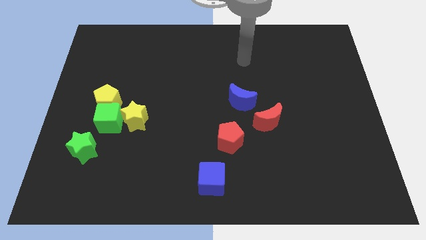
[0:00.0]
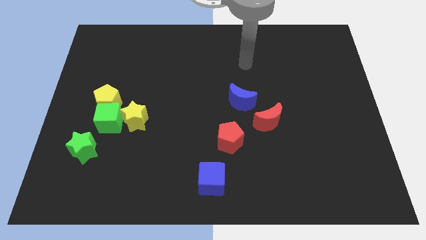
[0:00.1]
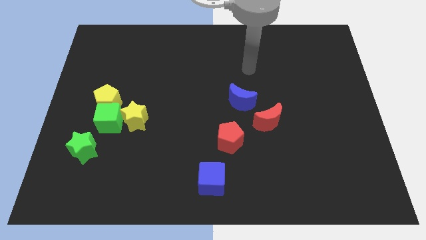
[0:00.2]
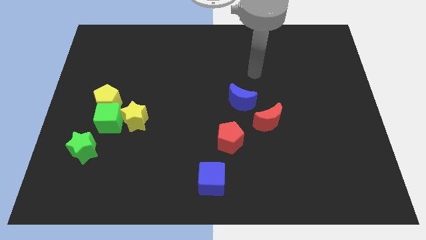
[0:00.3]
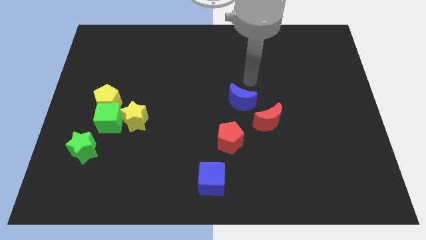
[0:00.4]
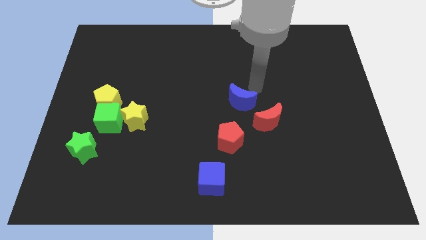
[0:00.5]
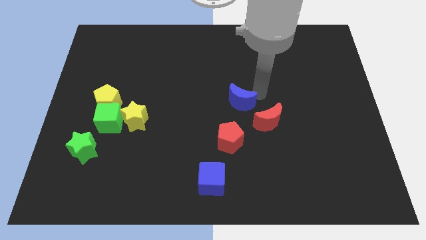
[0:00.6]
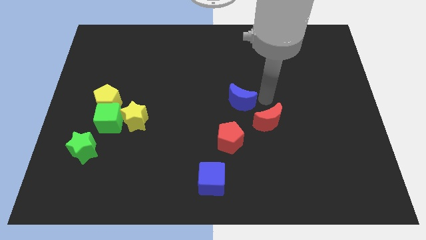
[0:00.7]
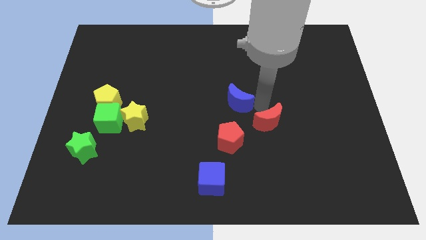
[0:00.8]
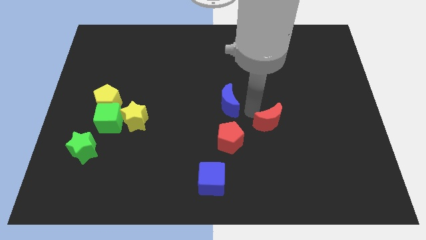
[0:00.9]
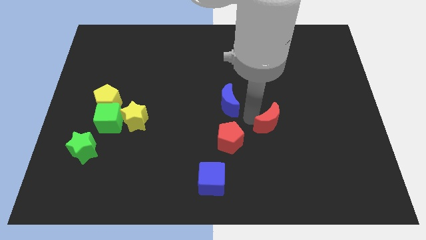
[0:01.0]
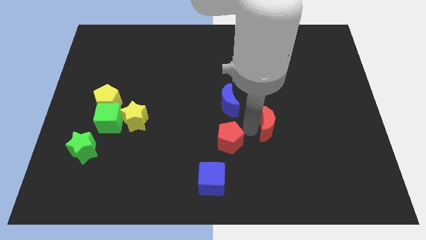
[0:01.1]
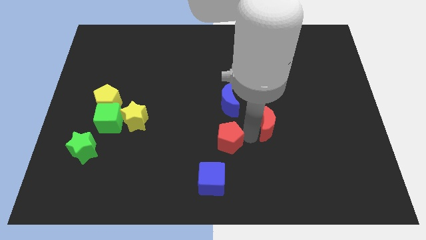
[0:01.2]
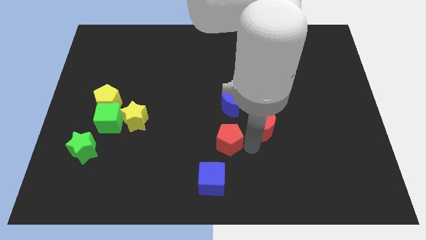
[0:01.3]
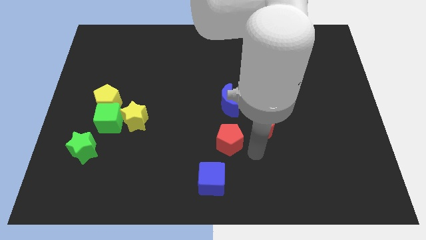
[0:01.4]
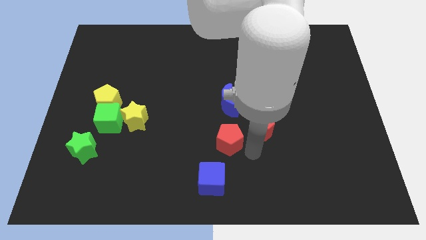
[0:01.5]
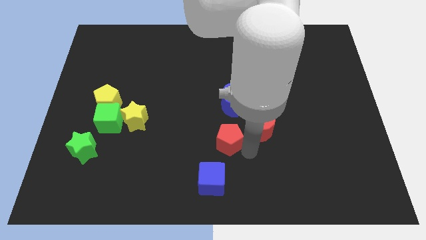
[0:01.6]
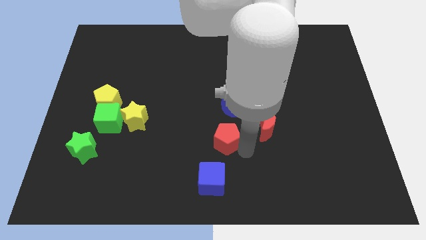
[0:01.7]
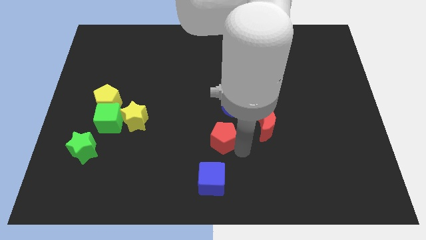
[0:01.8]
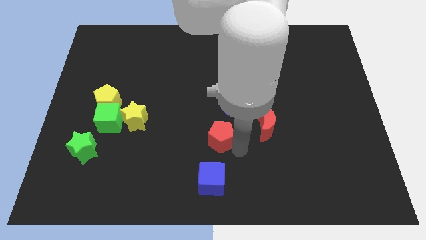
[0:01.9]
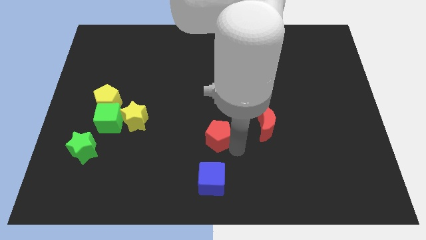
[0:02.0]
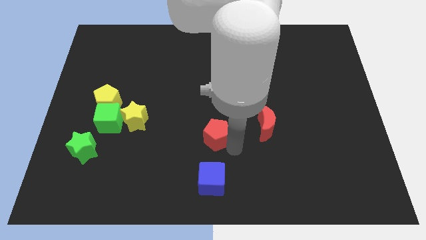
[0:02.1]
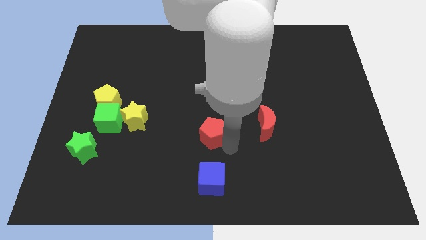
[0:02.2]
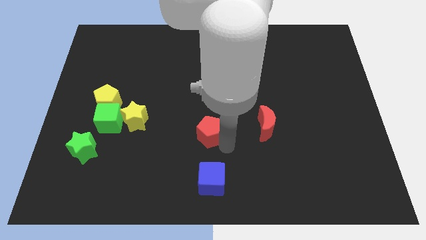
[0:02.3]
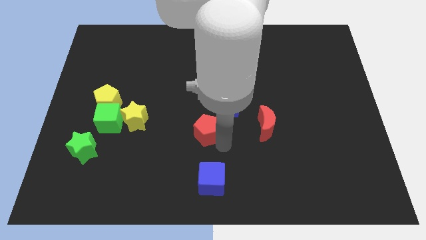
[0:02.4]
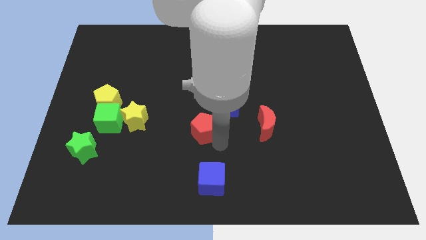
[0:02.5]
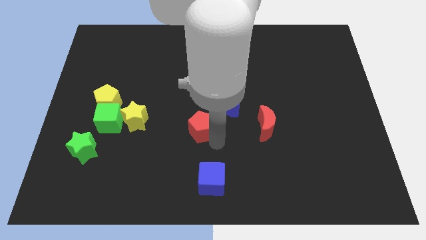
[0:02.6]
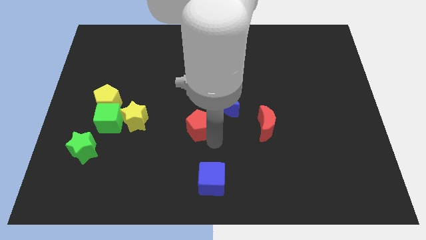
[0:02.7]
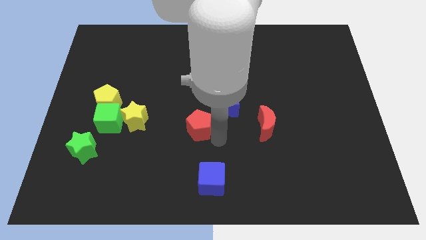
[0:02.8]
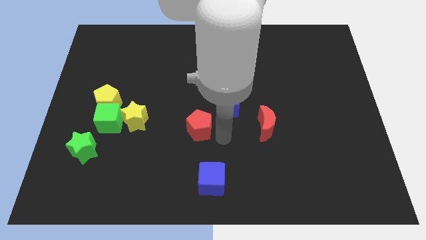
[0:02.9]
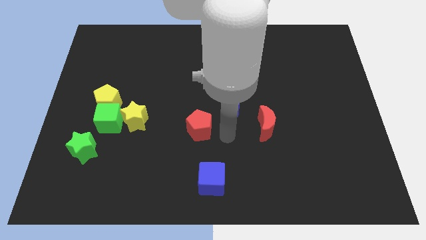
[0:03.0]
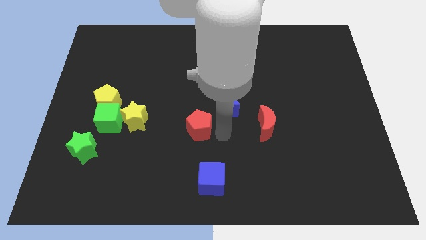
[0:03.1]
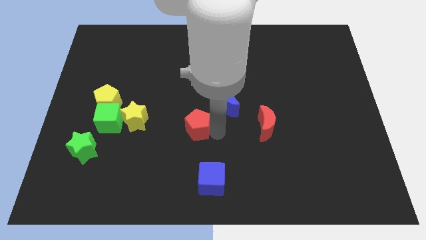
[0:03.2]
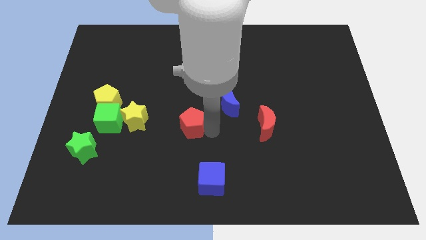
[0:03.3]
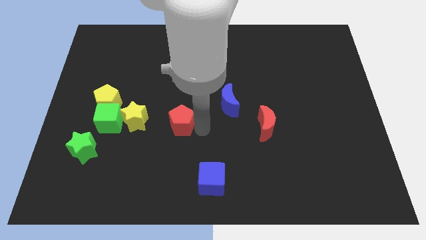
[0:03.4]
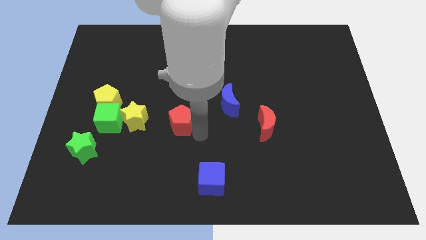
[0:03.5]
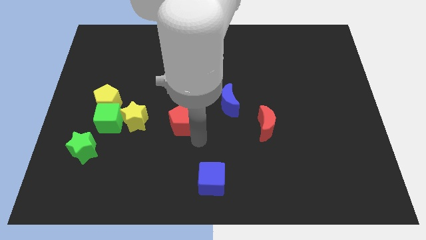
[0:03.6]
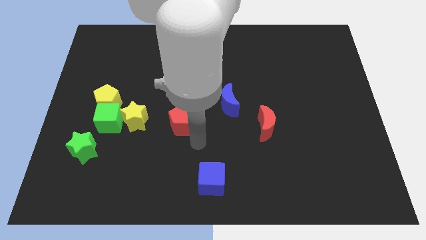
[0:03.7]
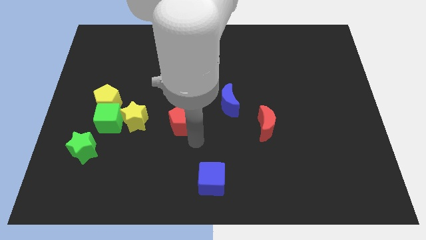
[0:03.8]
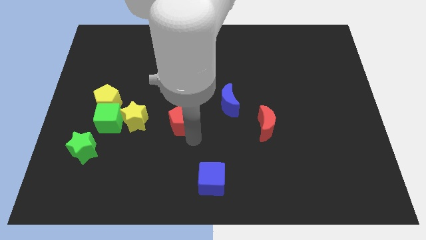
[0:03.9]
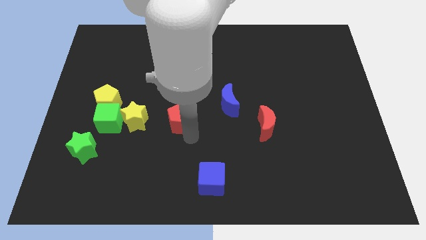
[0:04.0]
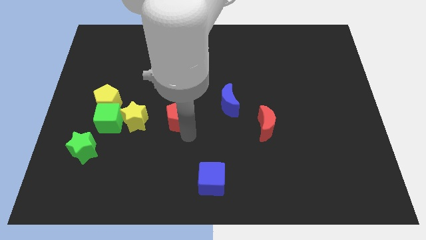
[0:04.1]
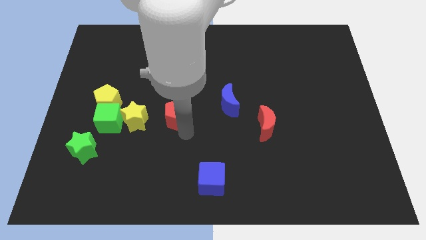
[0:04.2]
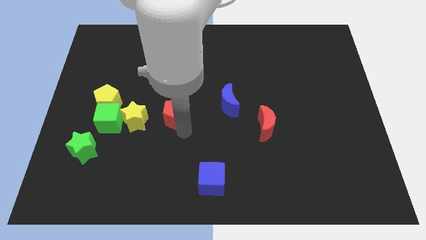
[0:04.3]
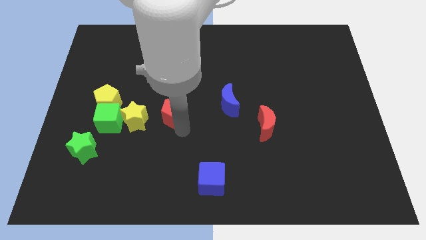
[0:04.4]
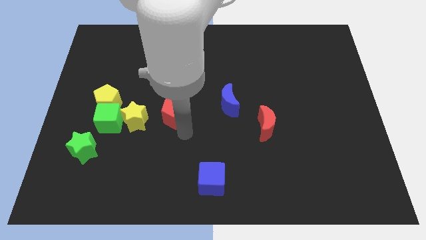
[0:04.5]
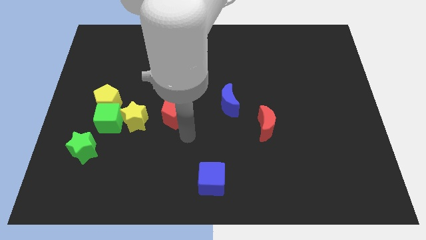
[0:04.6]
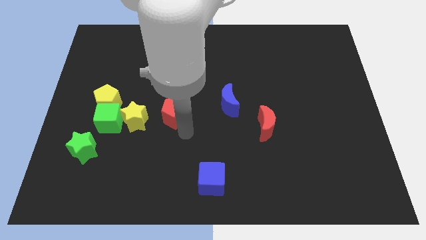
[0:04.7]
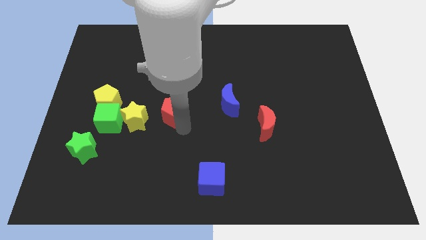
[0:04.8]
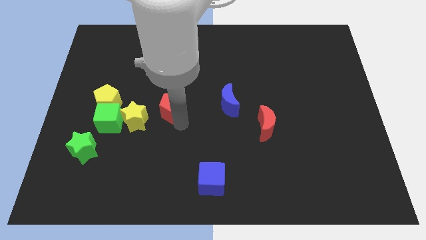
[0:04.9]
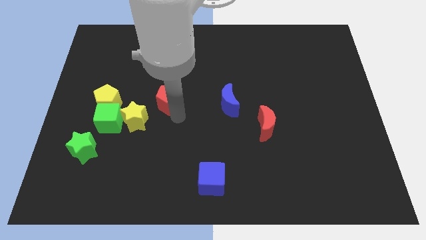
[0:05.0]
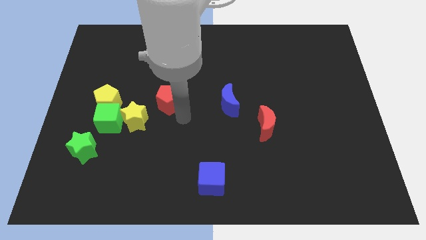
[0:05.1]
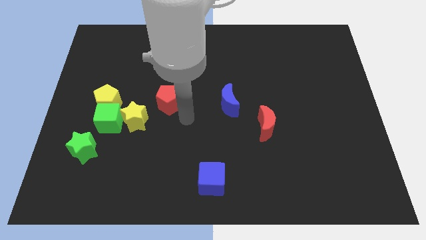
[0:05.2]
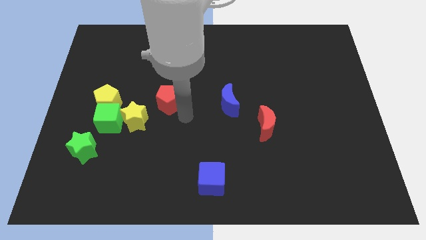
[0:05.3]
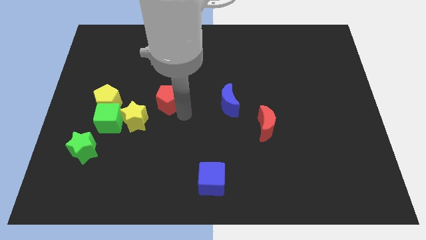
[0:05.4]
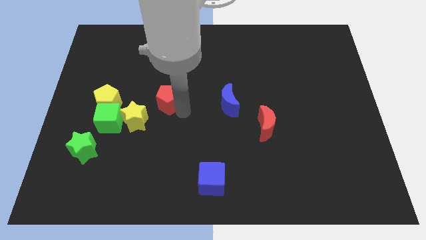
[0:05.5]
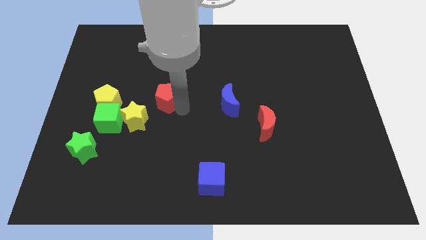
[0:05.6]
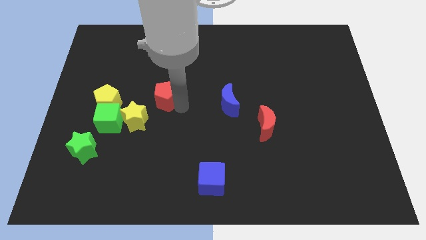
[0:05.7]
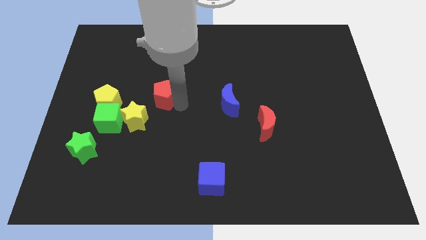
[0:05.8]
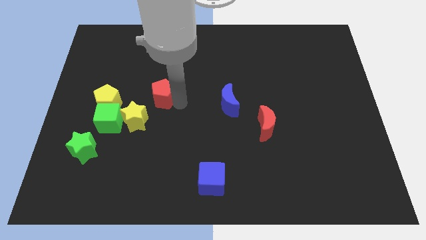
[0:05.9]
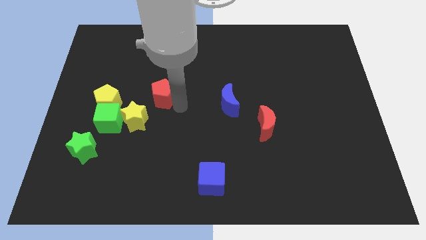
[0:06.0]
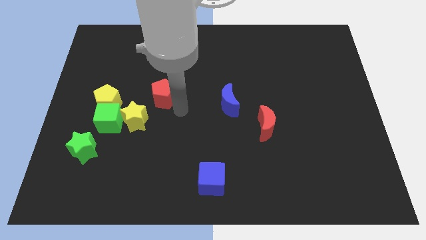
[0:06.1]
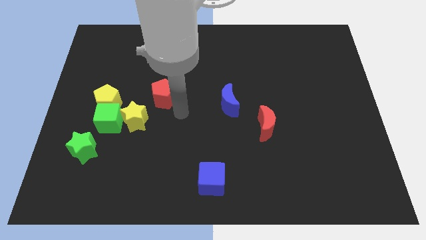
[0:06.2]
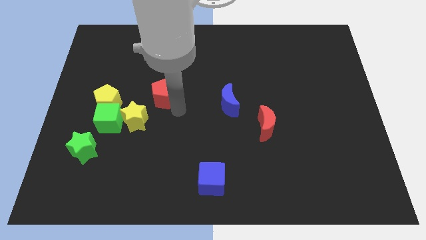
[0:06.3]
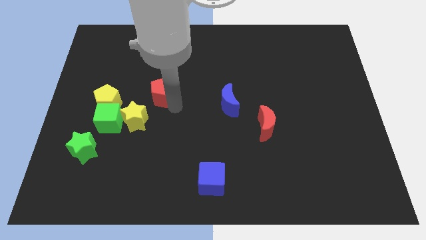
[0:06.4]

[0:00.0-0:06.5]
move the red pentagon upwards and then left

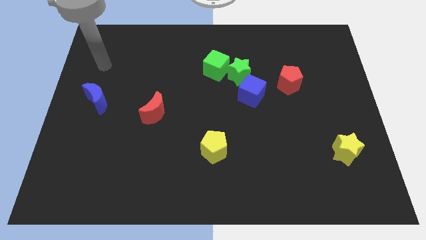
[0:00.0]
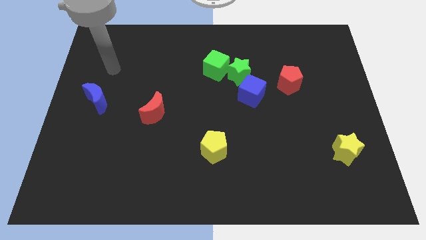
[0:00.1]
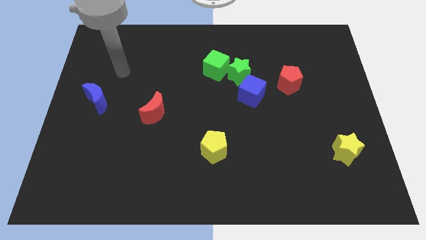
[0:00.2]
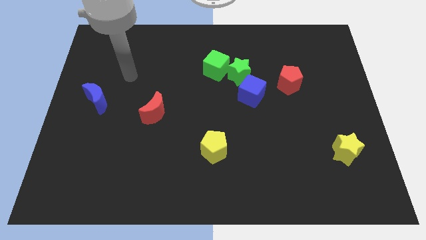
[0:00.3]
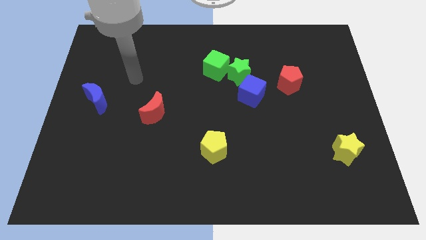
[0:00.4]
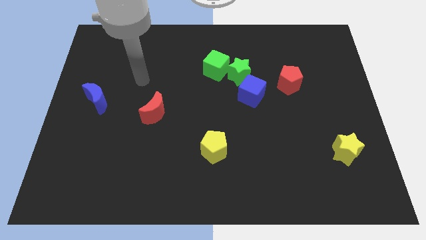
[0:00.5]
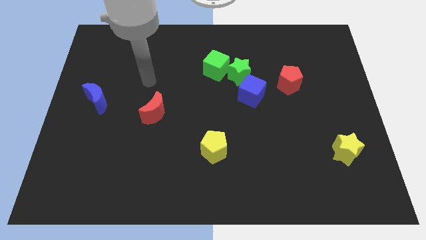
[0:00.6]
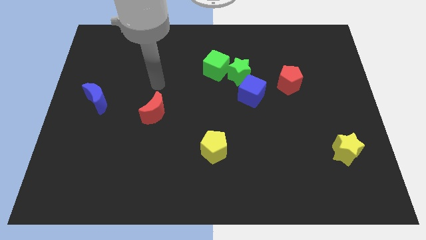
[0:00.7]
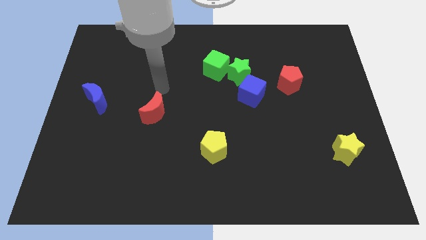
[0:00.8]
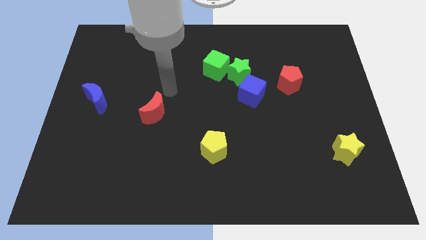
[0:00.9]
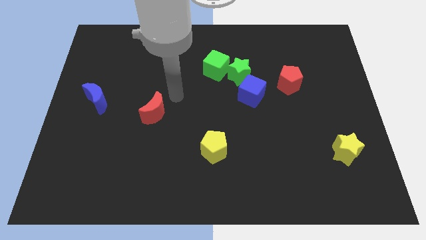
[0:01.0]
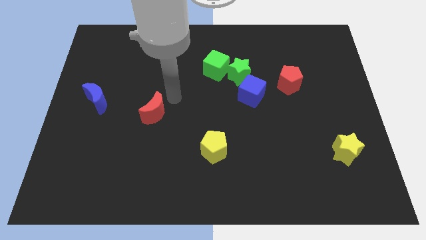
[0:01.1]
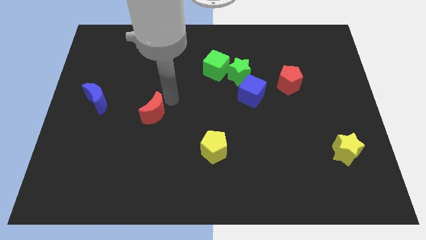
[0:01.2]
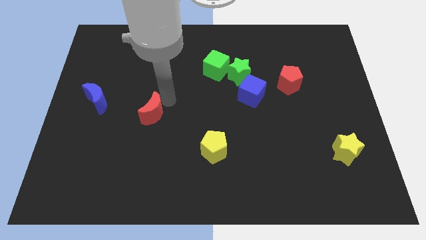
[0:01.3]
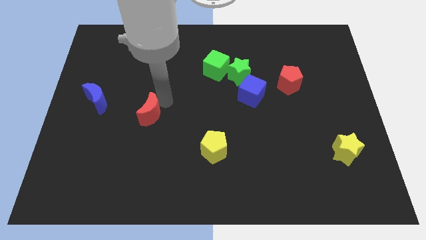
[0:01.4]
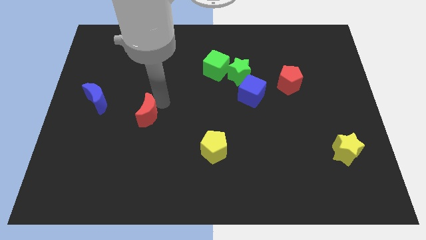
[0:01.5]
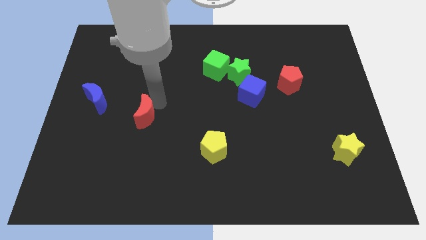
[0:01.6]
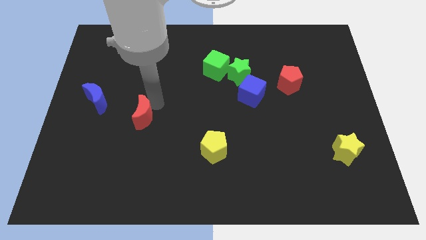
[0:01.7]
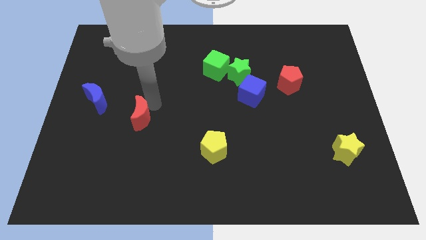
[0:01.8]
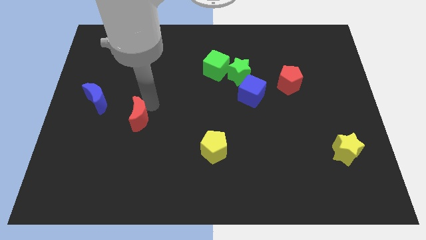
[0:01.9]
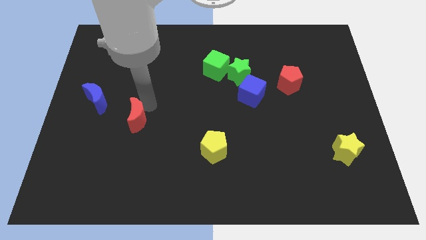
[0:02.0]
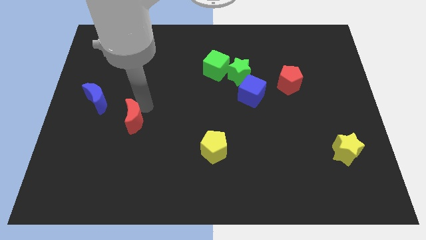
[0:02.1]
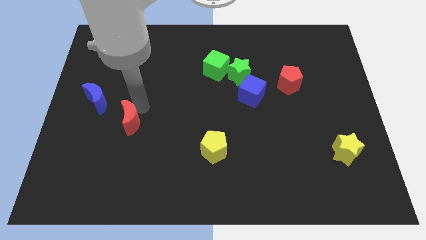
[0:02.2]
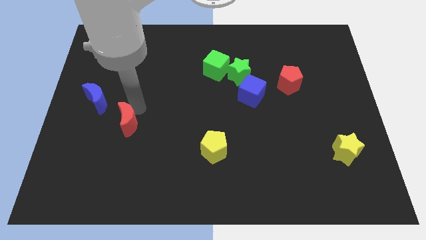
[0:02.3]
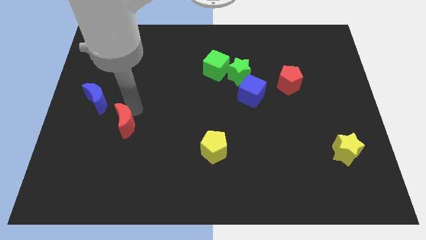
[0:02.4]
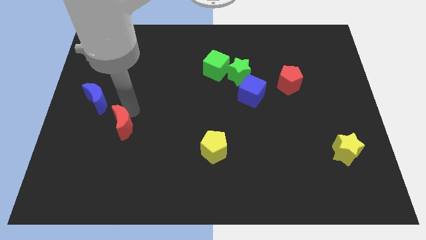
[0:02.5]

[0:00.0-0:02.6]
slightly move the red moon down and to the left
